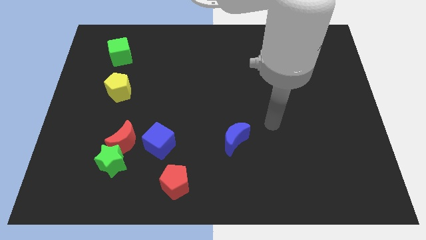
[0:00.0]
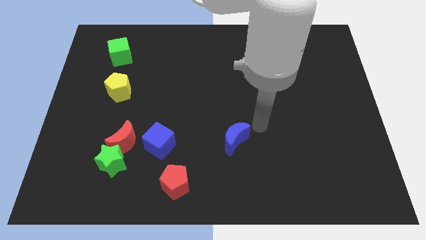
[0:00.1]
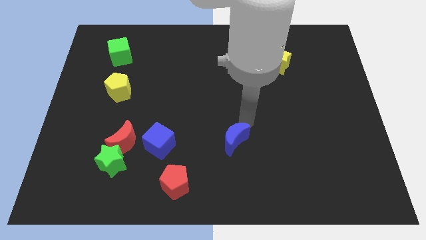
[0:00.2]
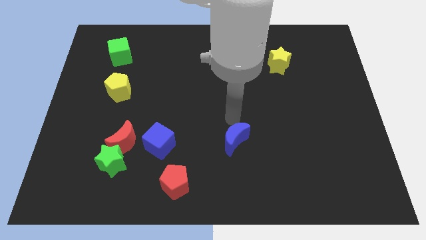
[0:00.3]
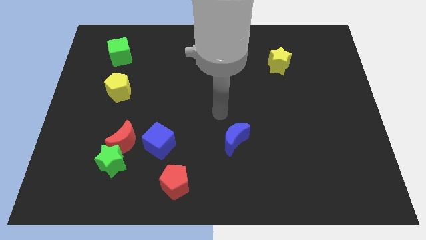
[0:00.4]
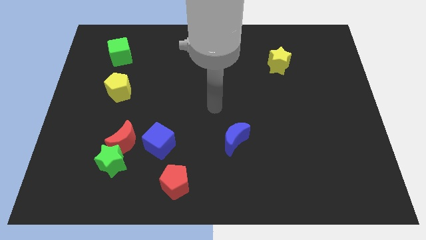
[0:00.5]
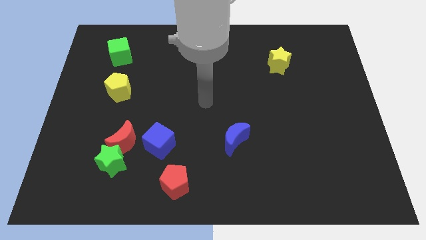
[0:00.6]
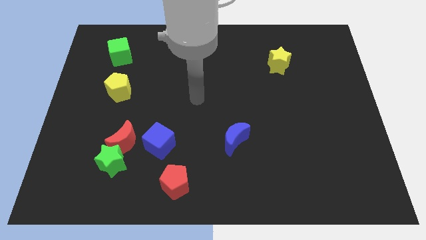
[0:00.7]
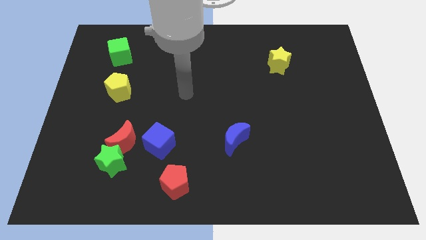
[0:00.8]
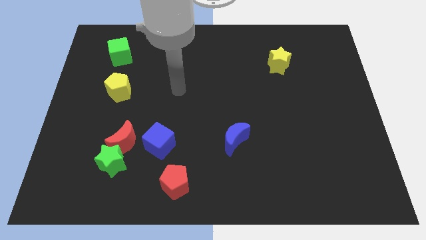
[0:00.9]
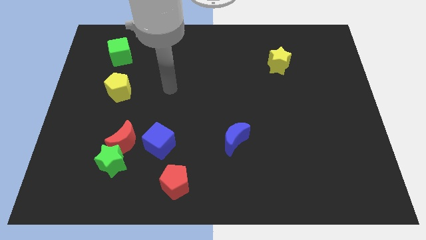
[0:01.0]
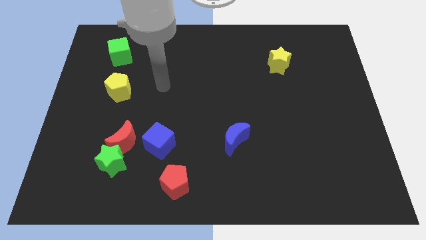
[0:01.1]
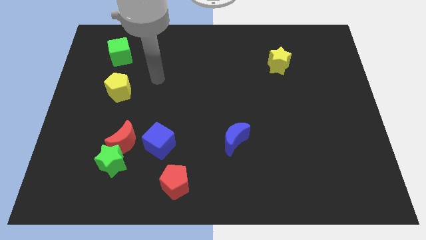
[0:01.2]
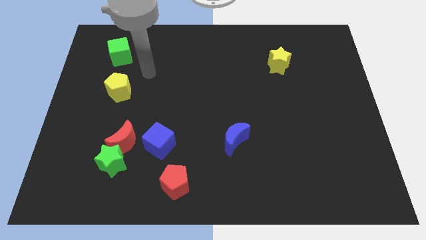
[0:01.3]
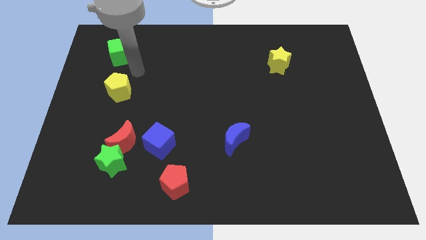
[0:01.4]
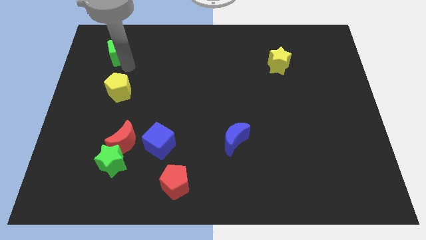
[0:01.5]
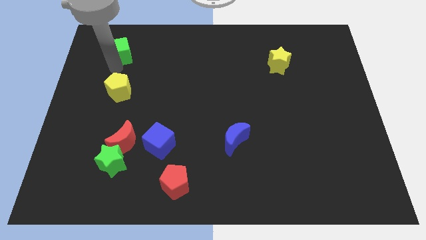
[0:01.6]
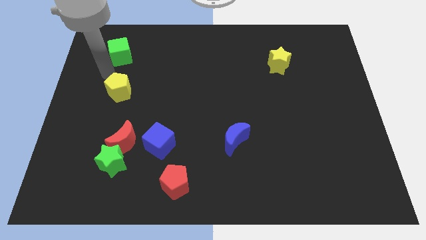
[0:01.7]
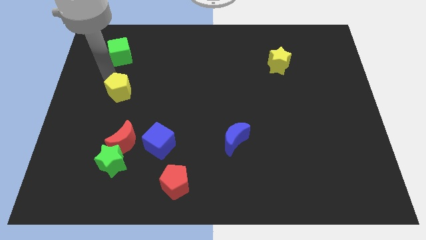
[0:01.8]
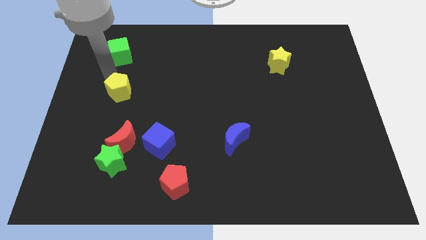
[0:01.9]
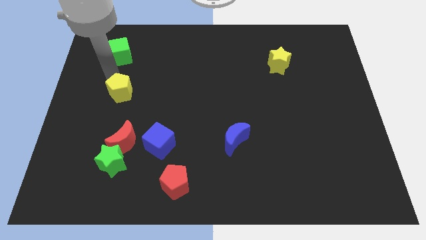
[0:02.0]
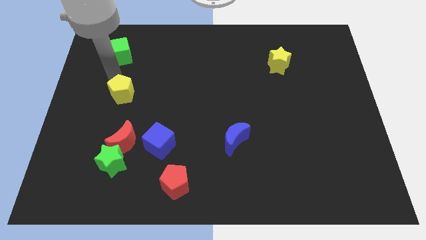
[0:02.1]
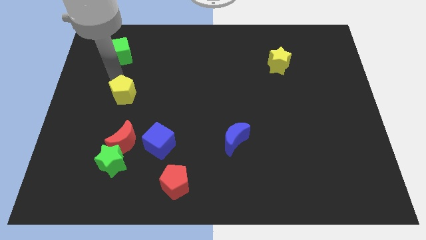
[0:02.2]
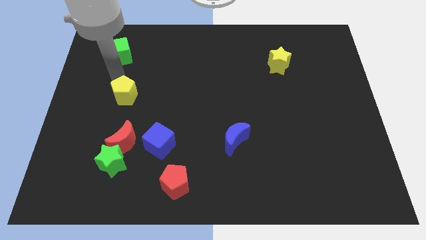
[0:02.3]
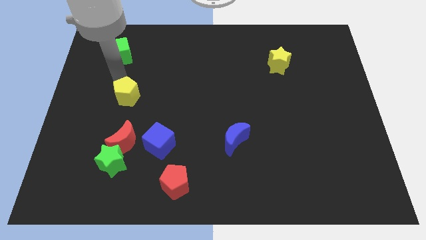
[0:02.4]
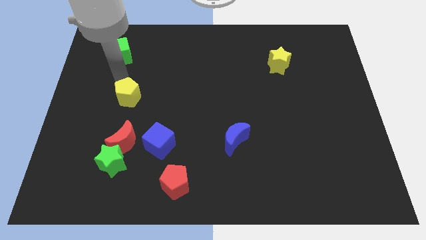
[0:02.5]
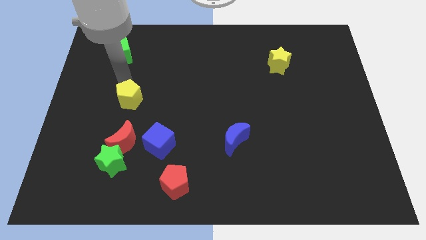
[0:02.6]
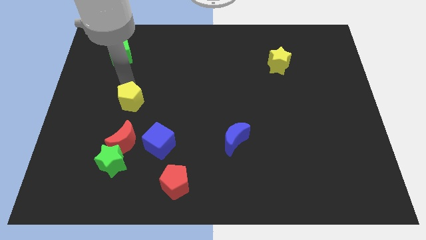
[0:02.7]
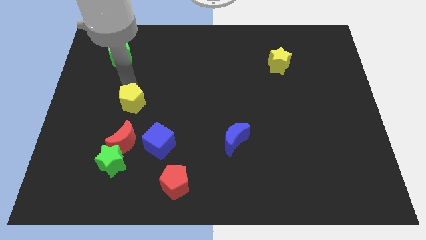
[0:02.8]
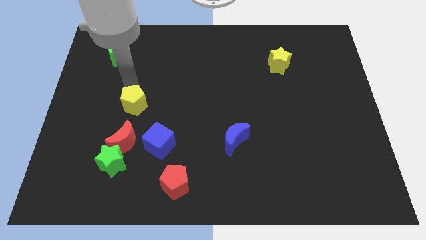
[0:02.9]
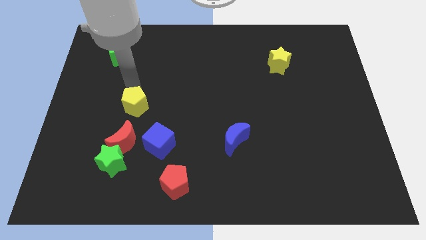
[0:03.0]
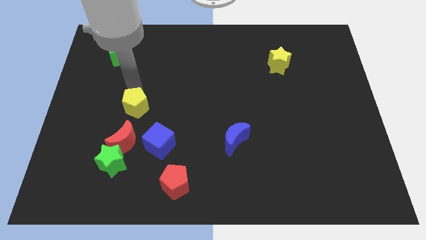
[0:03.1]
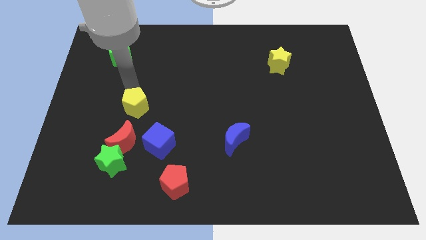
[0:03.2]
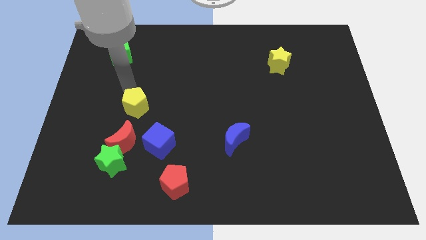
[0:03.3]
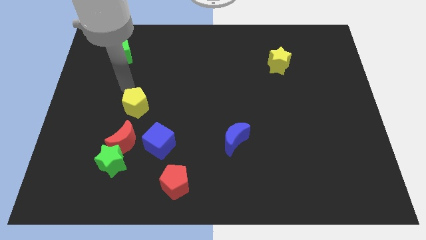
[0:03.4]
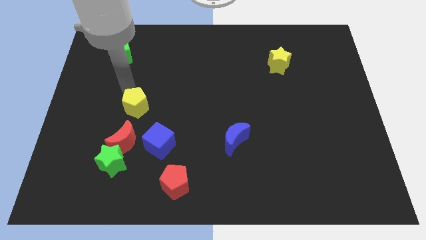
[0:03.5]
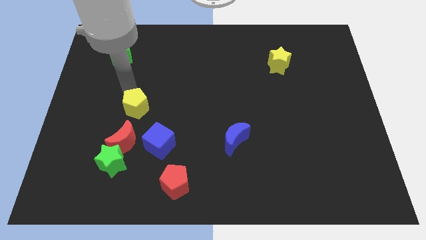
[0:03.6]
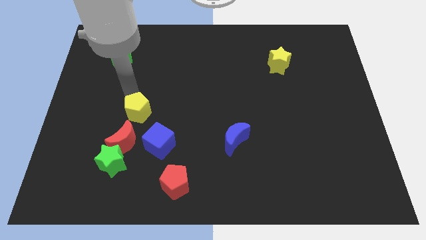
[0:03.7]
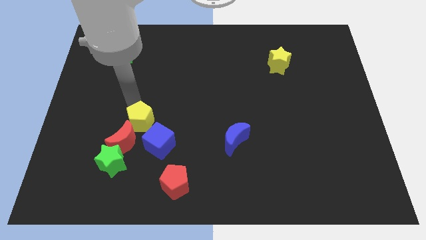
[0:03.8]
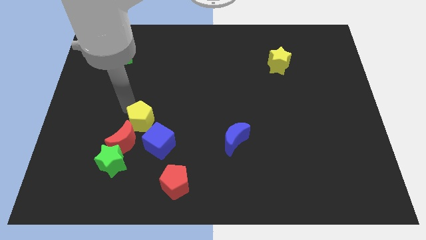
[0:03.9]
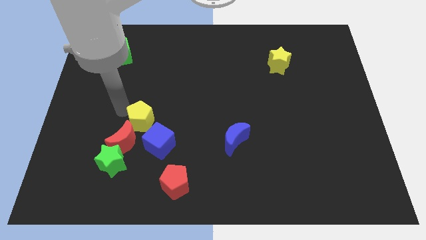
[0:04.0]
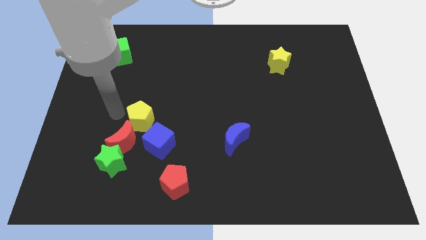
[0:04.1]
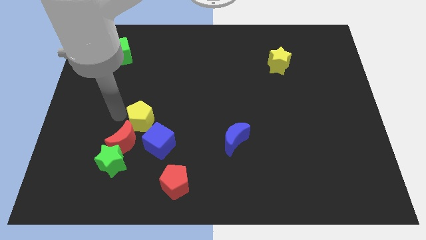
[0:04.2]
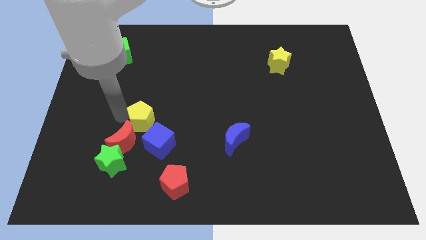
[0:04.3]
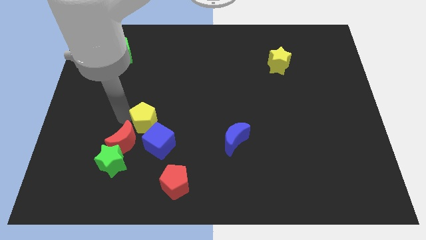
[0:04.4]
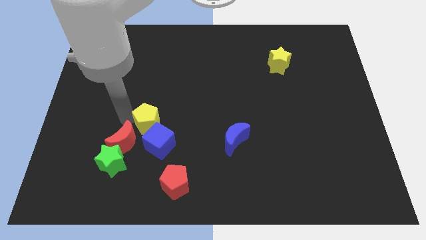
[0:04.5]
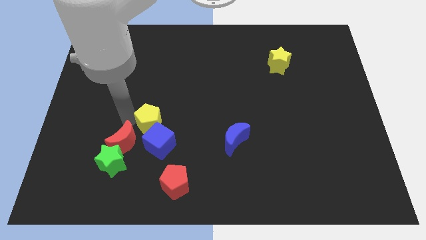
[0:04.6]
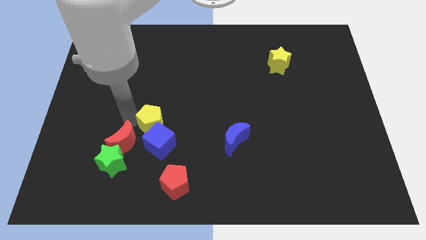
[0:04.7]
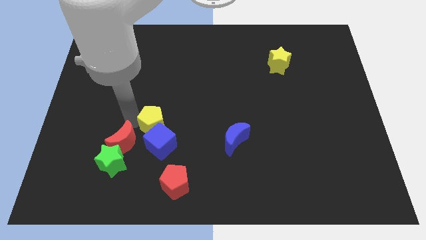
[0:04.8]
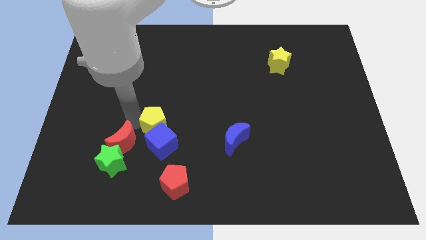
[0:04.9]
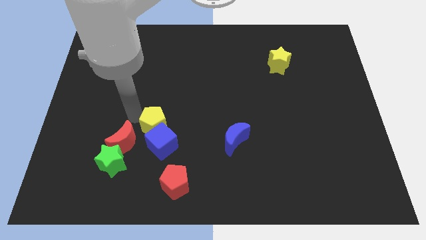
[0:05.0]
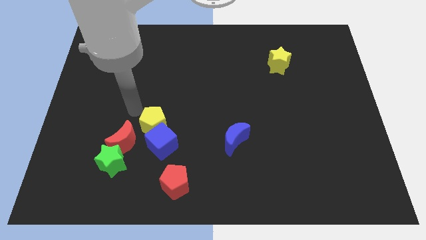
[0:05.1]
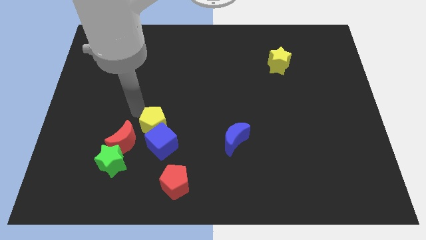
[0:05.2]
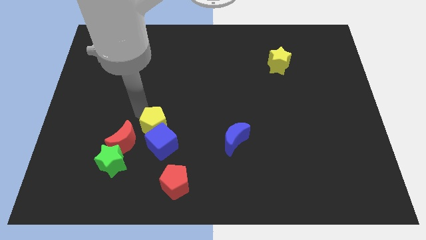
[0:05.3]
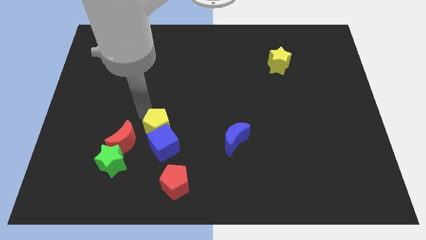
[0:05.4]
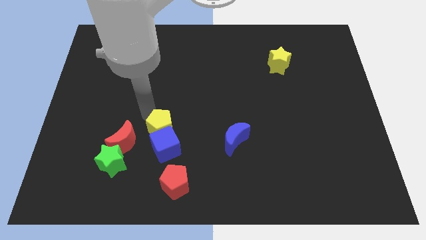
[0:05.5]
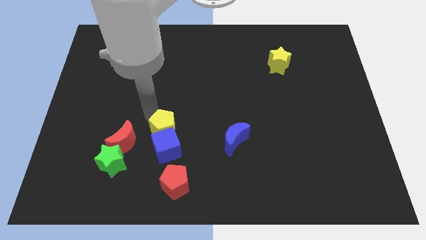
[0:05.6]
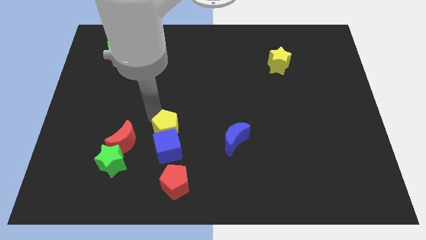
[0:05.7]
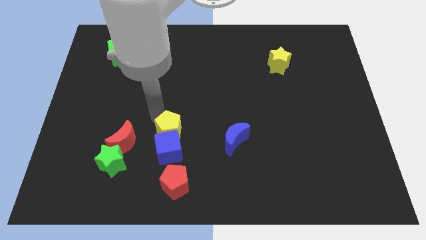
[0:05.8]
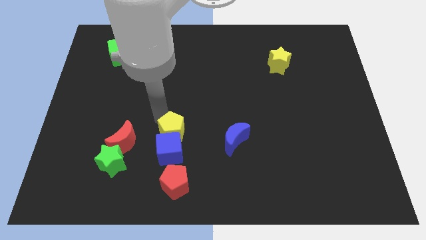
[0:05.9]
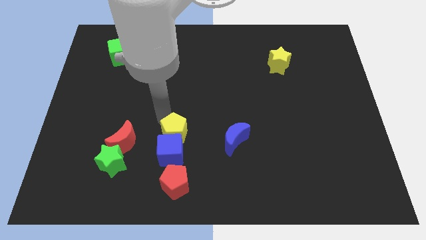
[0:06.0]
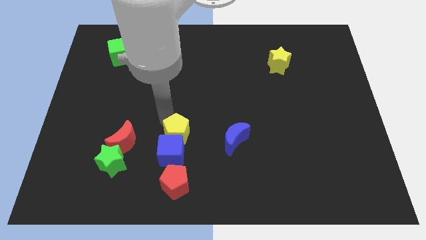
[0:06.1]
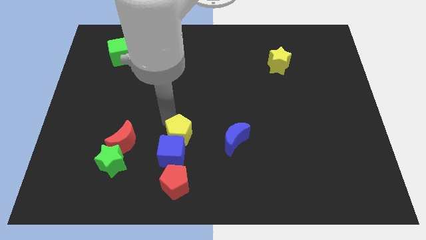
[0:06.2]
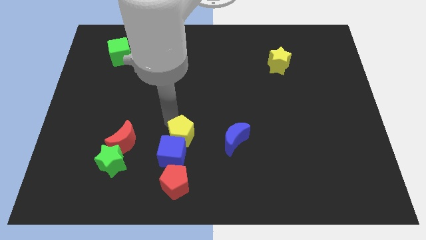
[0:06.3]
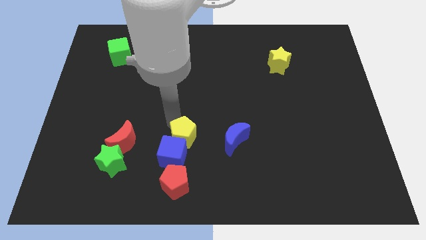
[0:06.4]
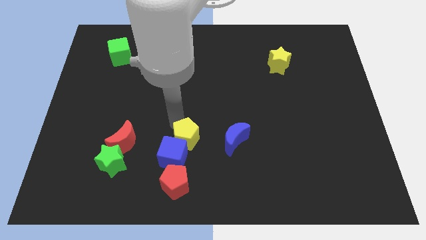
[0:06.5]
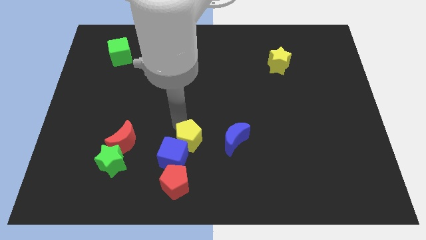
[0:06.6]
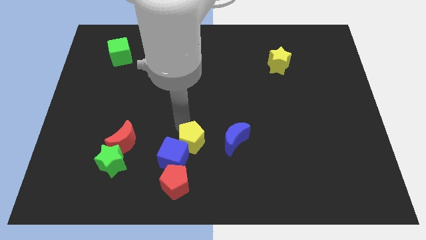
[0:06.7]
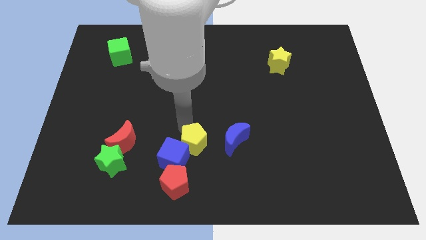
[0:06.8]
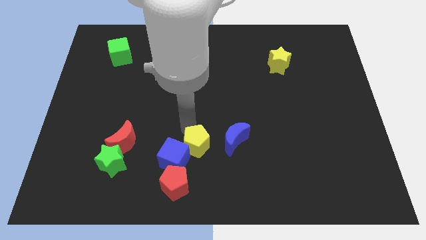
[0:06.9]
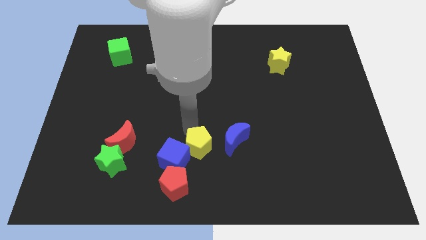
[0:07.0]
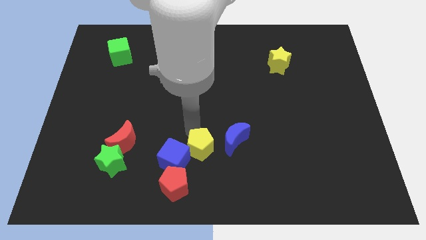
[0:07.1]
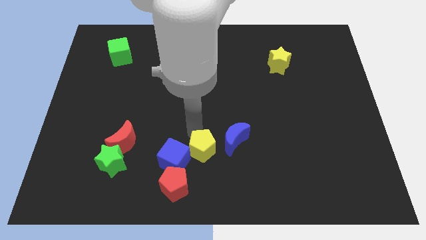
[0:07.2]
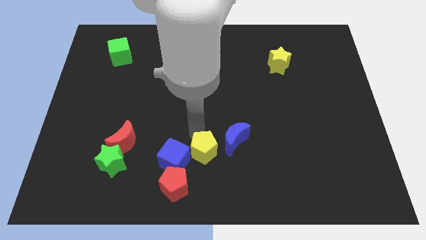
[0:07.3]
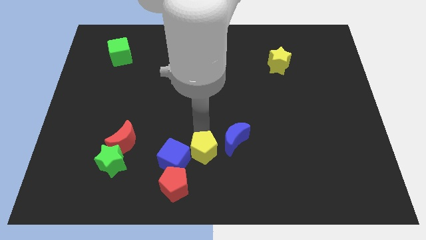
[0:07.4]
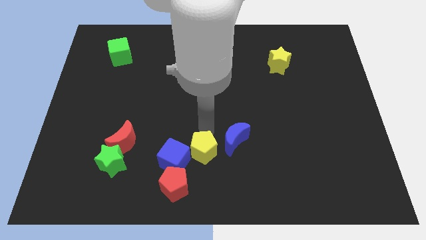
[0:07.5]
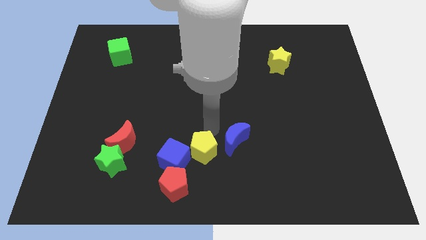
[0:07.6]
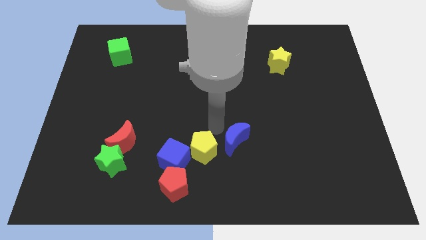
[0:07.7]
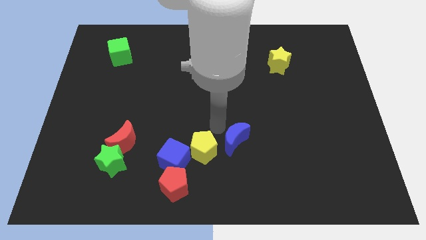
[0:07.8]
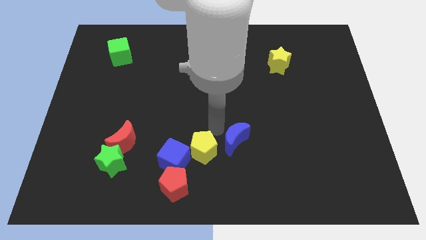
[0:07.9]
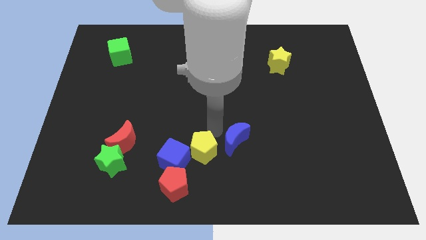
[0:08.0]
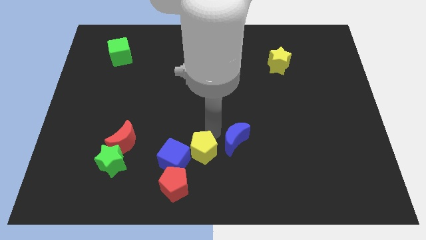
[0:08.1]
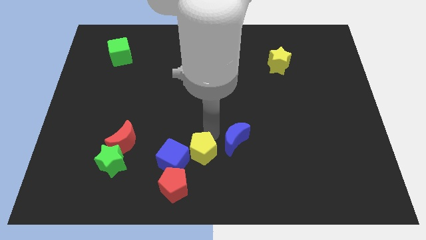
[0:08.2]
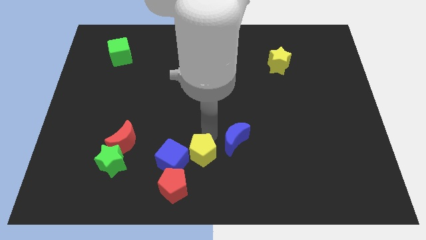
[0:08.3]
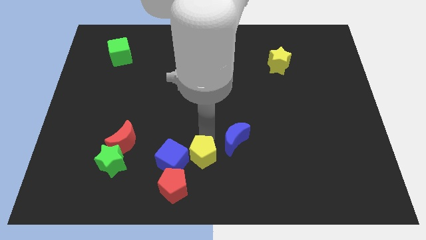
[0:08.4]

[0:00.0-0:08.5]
slide the yellow pentagon to the bottom side

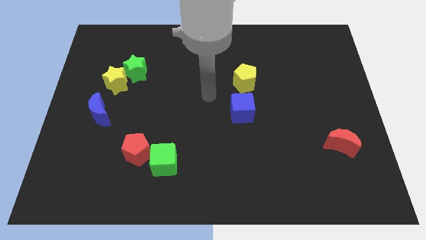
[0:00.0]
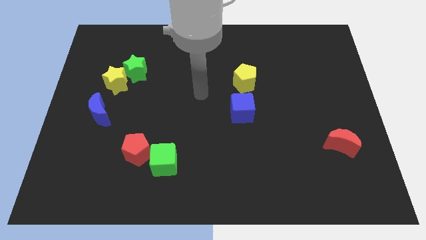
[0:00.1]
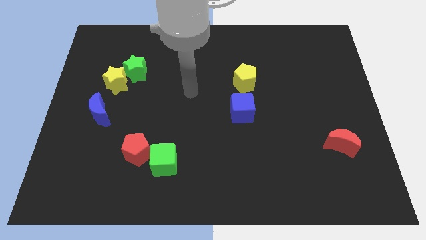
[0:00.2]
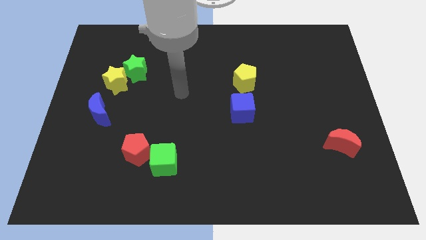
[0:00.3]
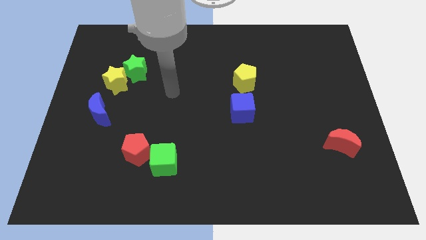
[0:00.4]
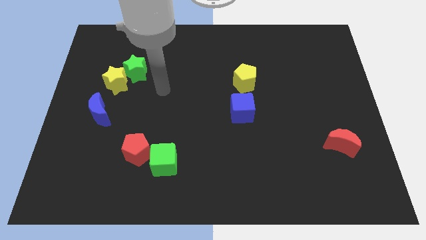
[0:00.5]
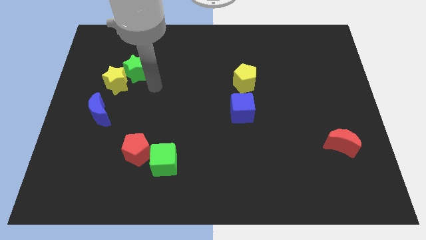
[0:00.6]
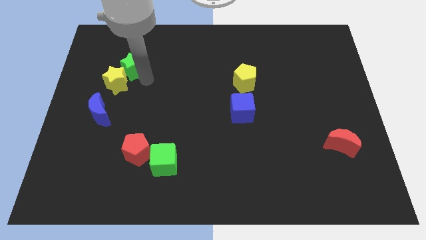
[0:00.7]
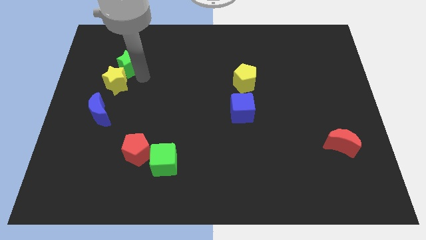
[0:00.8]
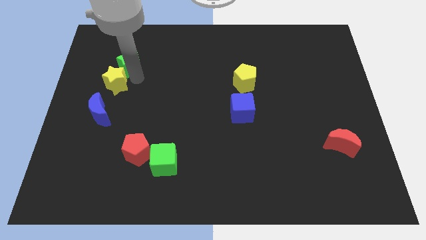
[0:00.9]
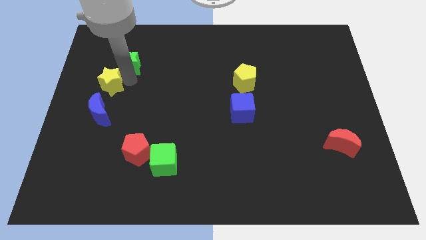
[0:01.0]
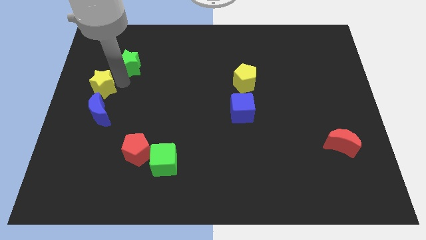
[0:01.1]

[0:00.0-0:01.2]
slide the yellow star to the left side
